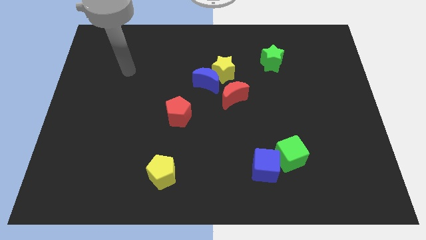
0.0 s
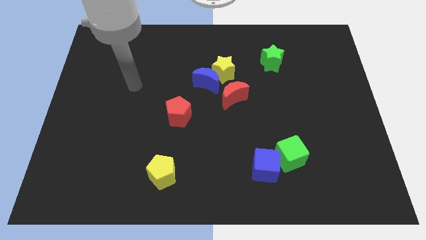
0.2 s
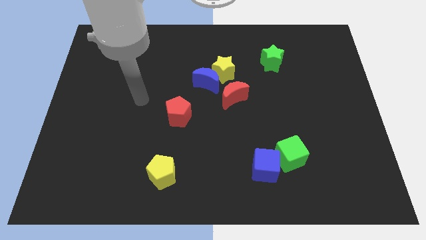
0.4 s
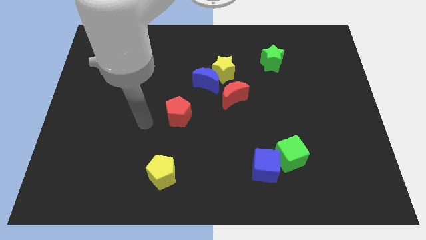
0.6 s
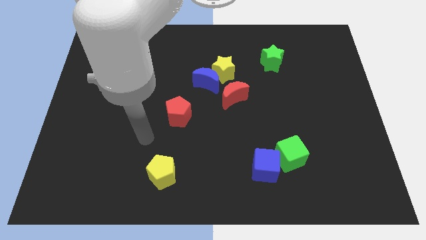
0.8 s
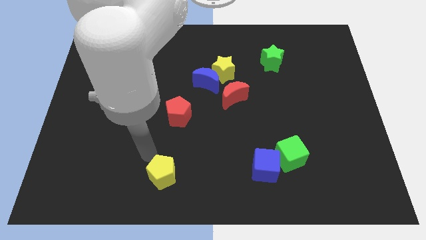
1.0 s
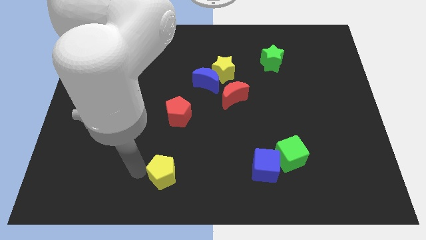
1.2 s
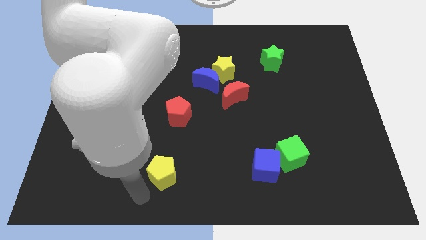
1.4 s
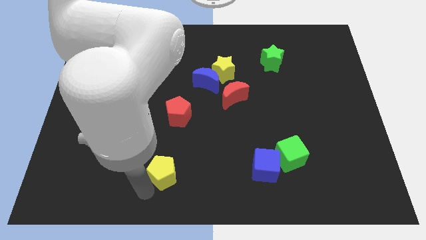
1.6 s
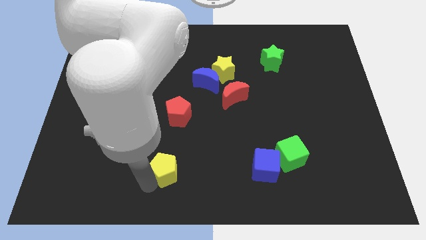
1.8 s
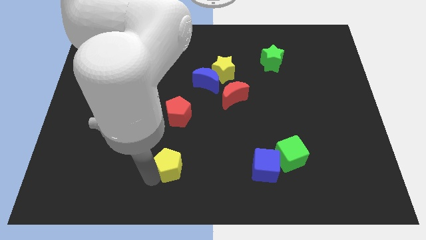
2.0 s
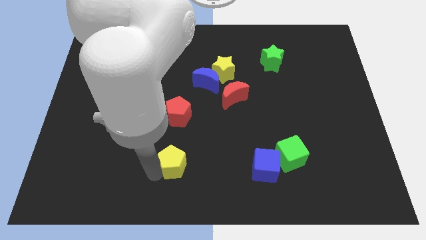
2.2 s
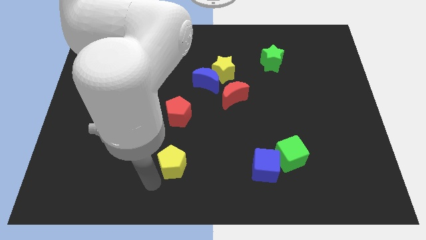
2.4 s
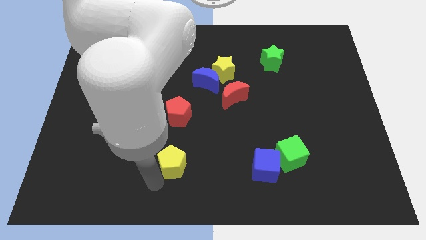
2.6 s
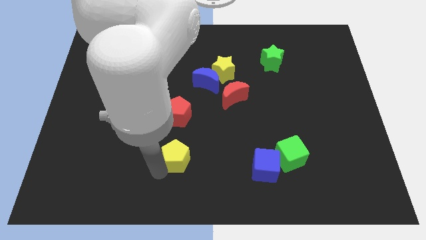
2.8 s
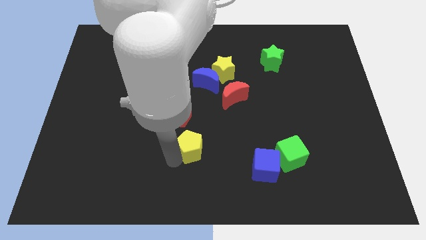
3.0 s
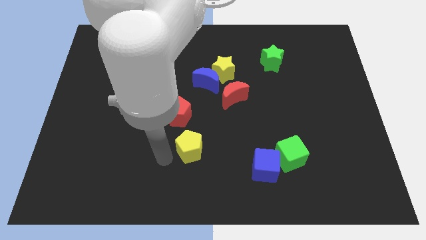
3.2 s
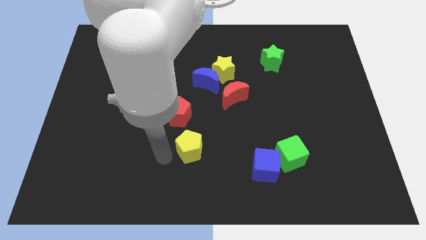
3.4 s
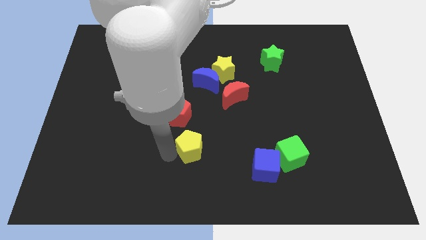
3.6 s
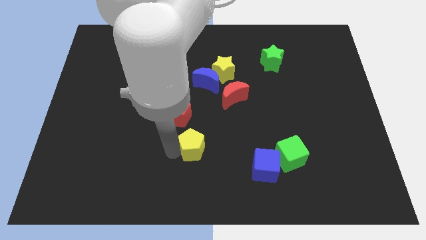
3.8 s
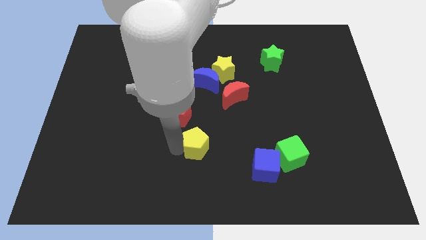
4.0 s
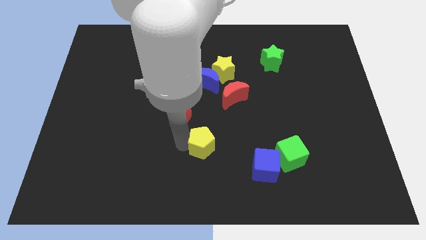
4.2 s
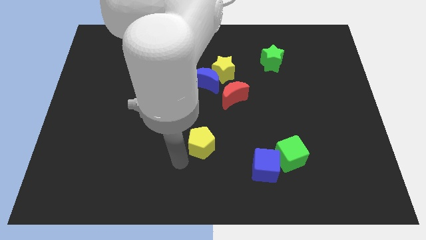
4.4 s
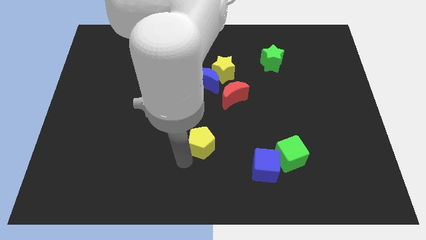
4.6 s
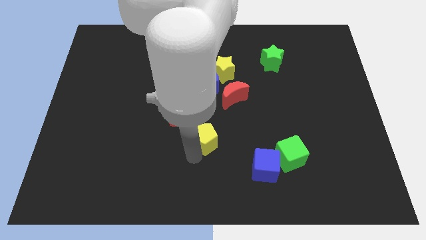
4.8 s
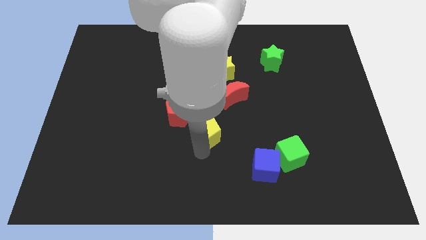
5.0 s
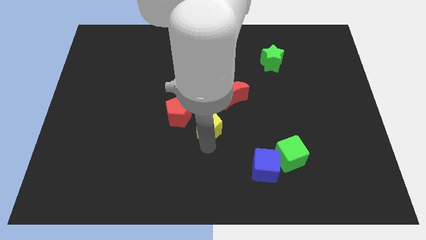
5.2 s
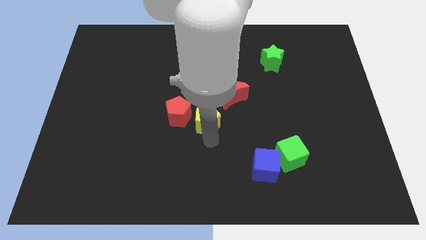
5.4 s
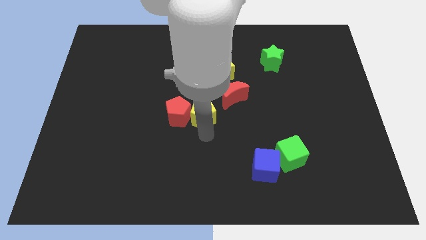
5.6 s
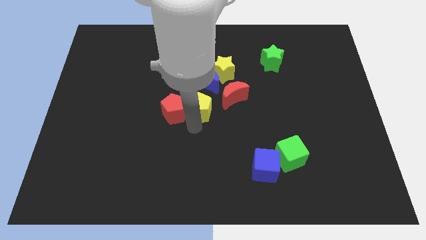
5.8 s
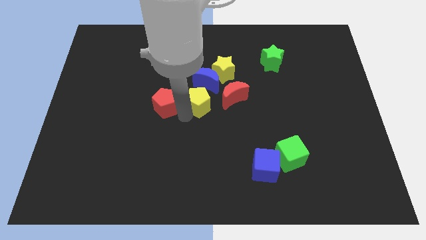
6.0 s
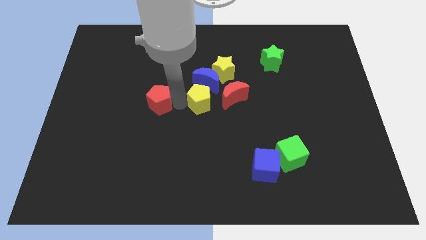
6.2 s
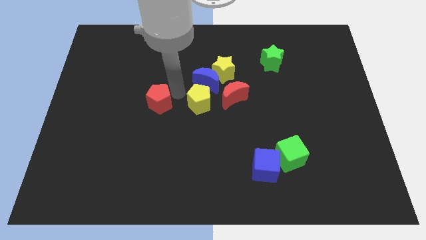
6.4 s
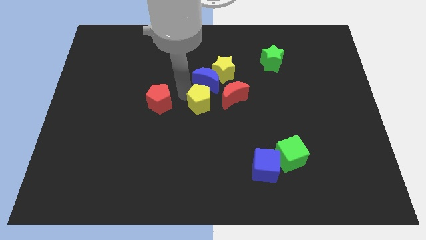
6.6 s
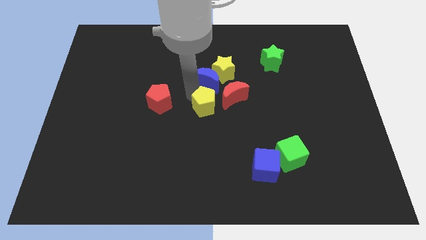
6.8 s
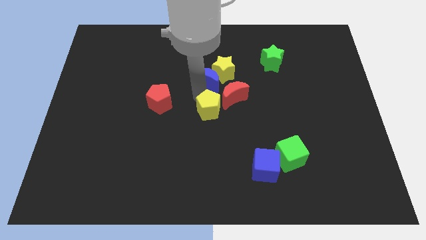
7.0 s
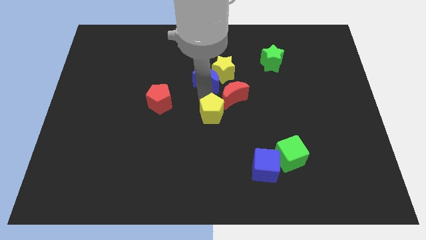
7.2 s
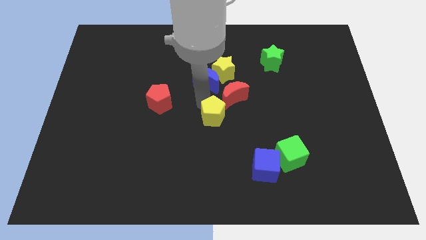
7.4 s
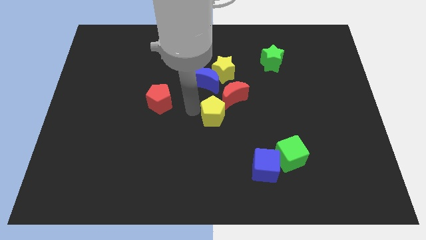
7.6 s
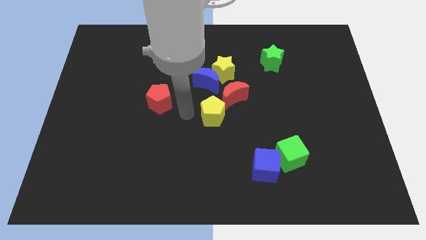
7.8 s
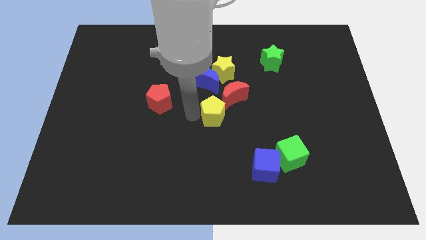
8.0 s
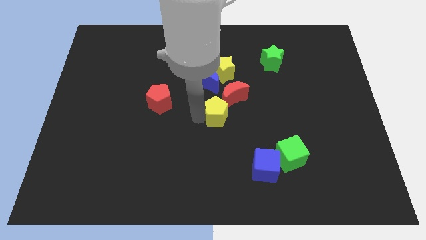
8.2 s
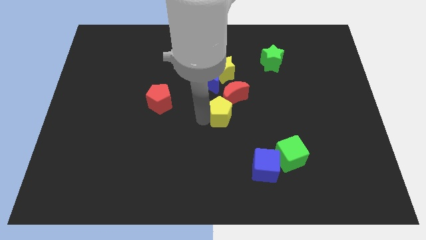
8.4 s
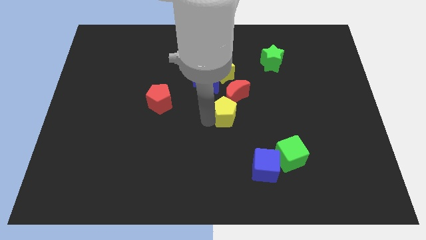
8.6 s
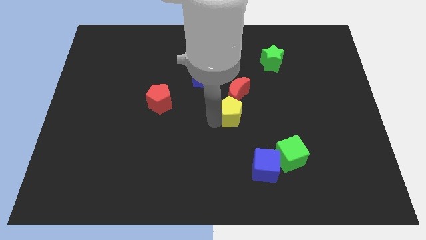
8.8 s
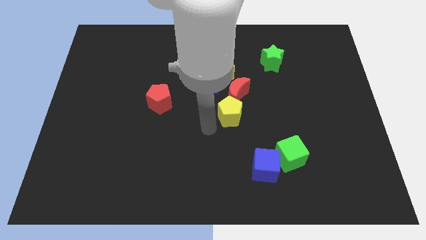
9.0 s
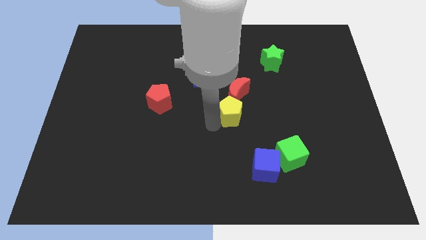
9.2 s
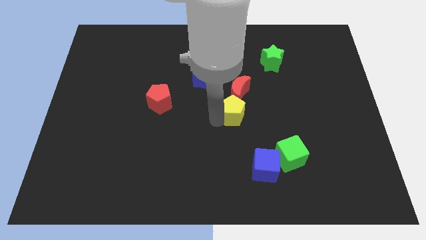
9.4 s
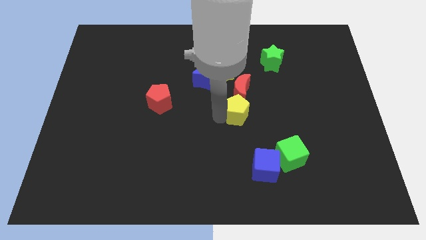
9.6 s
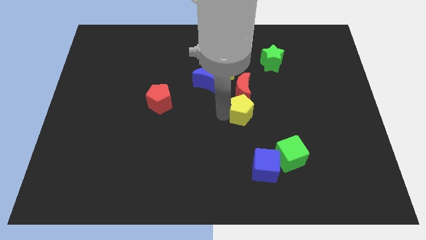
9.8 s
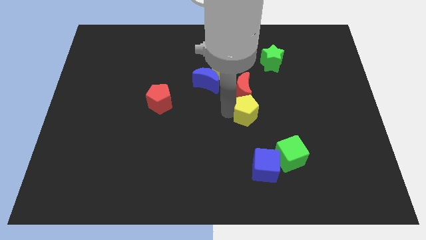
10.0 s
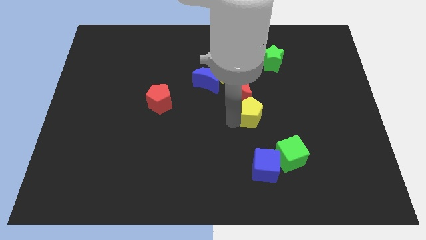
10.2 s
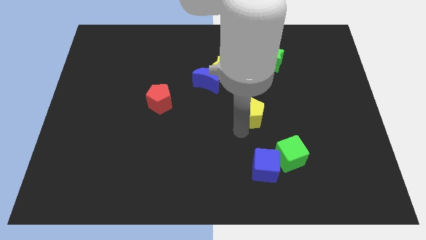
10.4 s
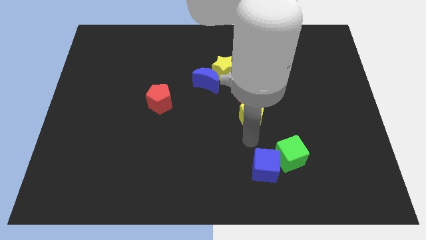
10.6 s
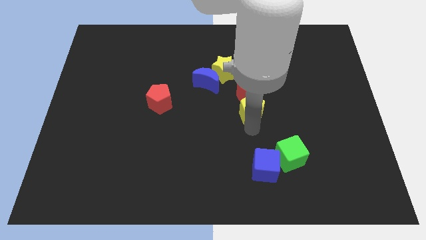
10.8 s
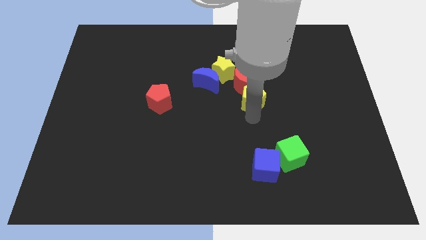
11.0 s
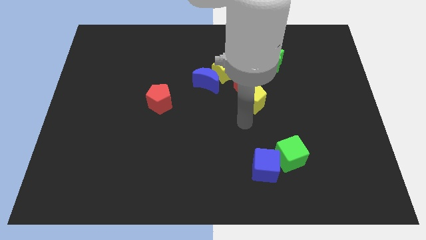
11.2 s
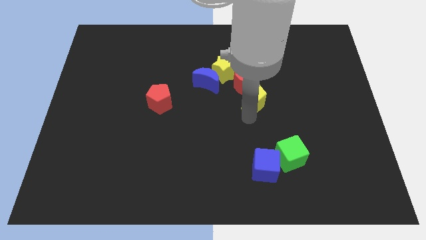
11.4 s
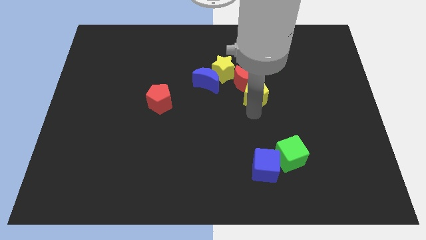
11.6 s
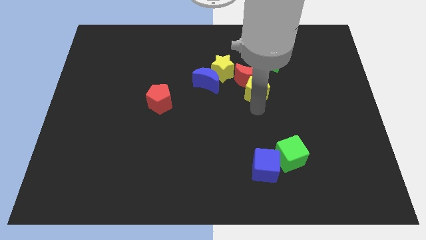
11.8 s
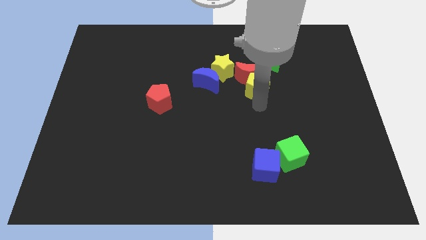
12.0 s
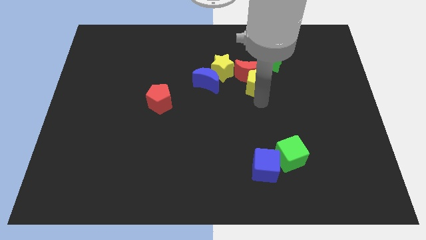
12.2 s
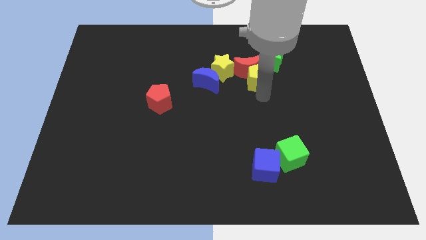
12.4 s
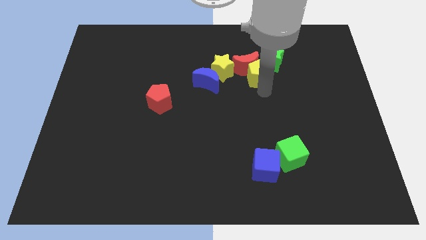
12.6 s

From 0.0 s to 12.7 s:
move the yellow pentagon towards the green star

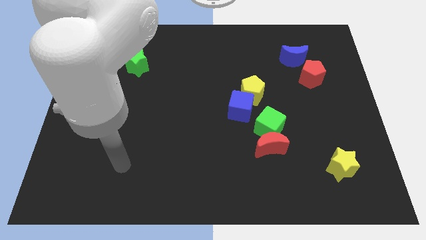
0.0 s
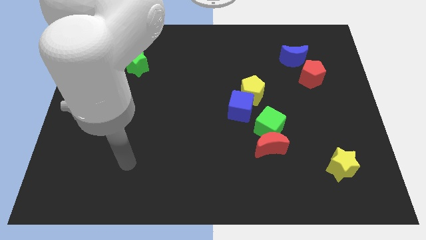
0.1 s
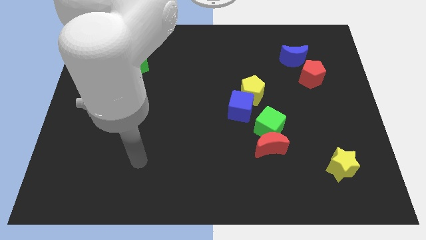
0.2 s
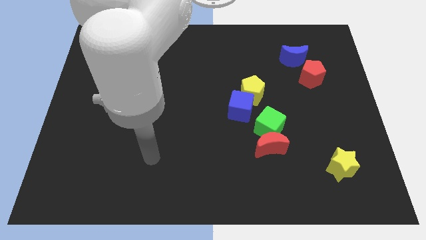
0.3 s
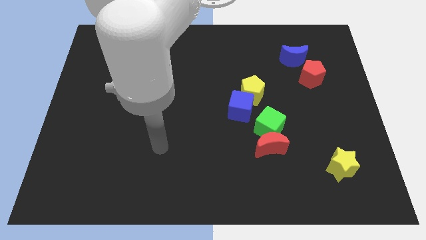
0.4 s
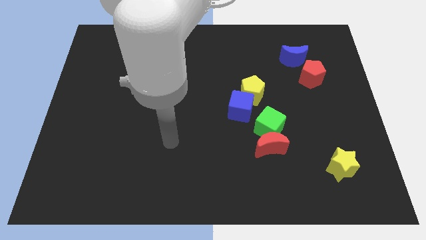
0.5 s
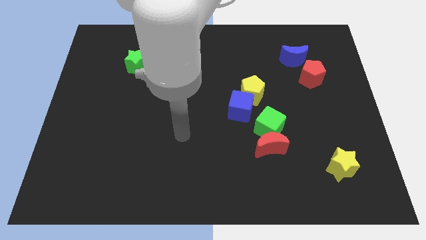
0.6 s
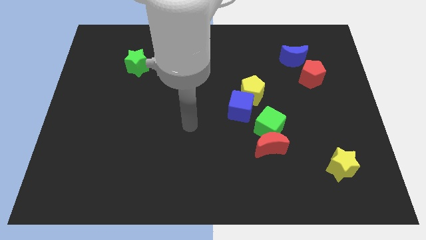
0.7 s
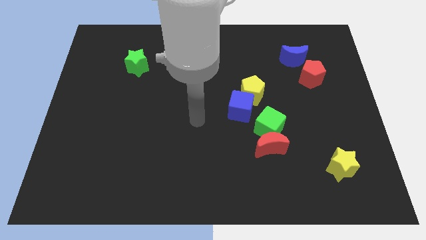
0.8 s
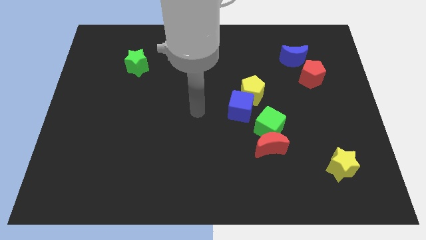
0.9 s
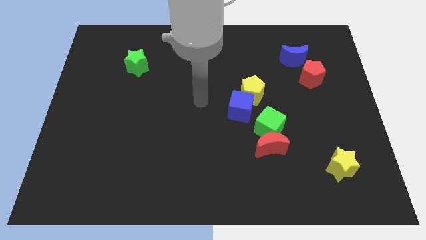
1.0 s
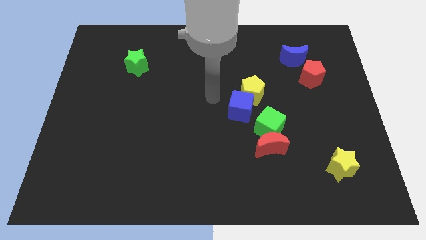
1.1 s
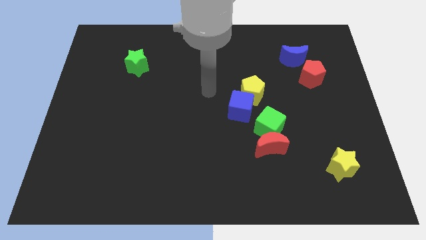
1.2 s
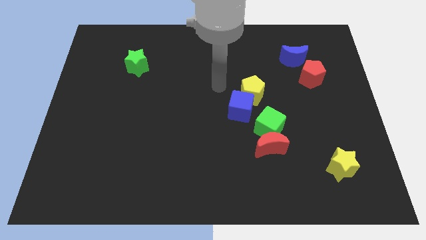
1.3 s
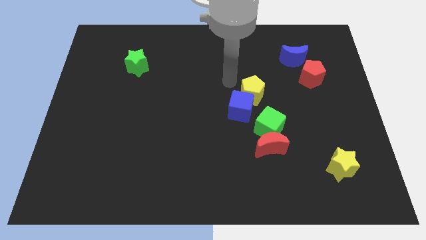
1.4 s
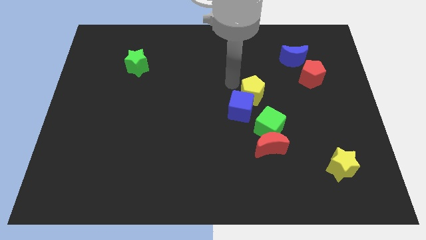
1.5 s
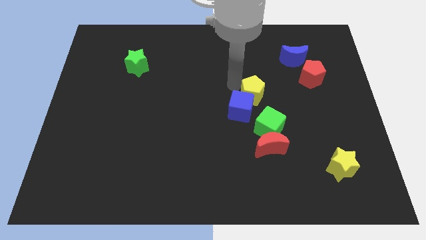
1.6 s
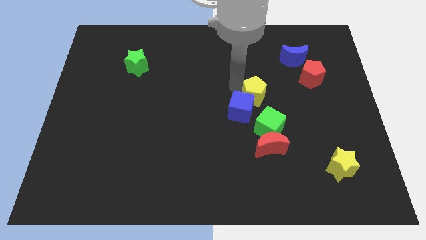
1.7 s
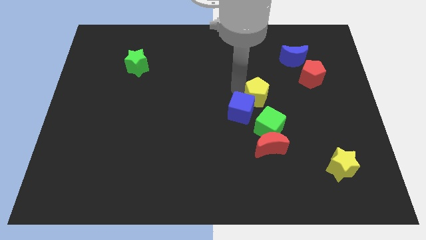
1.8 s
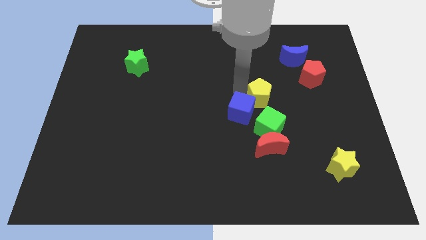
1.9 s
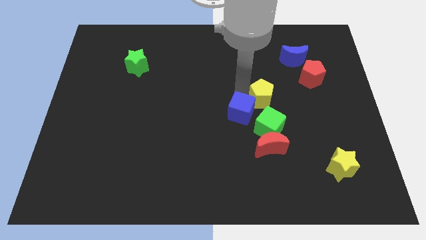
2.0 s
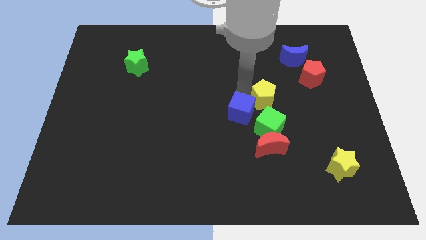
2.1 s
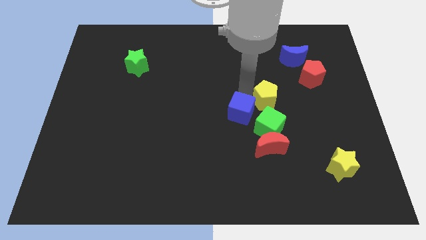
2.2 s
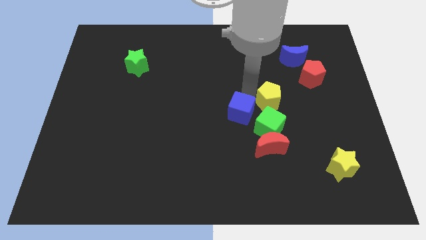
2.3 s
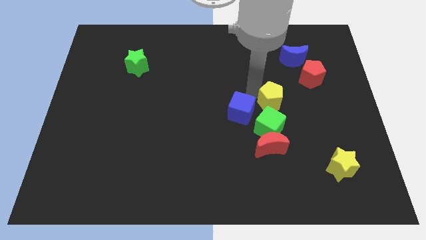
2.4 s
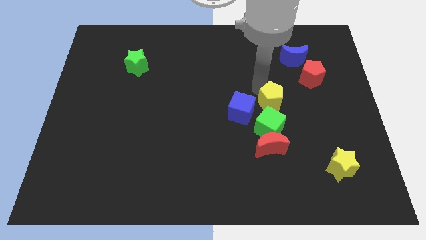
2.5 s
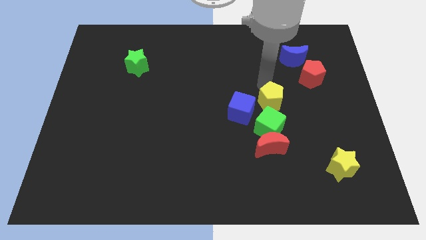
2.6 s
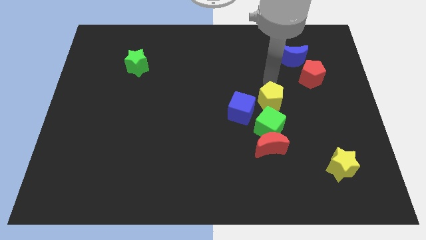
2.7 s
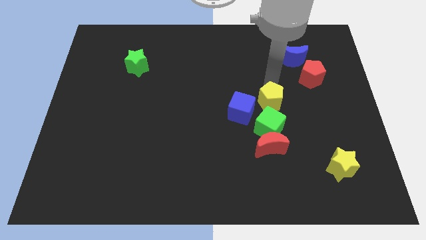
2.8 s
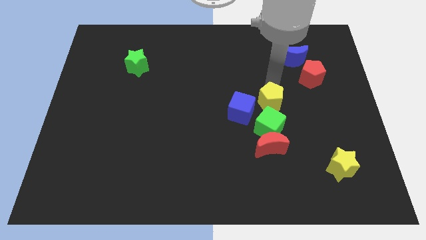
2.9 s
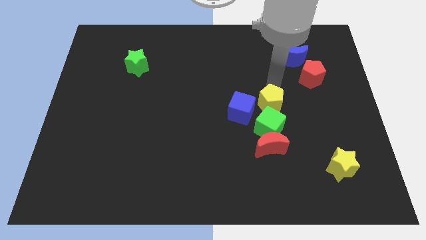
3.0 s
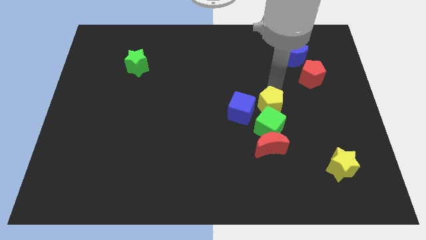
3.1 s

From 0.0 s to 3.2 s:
put the yellow pentagon next to the green cube
